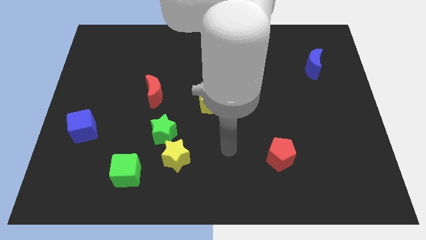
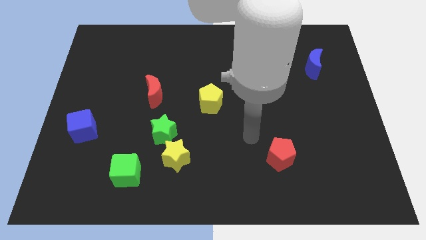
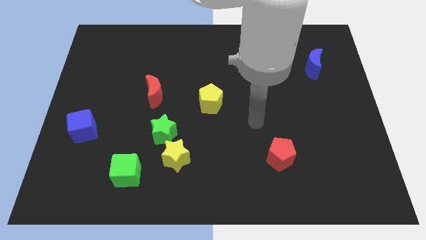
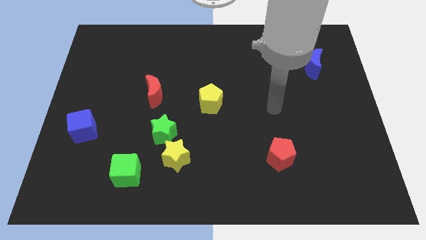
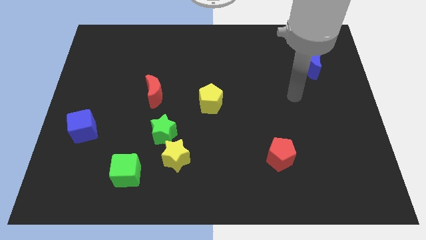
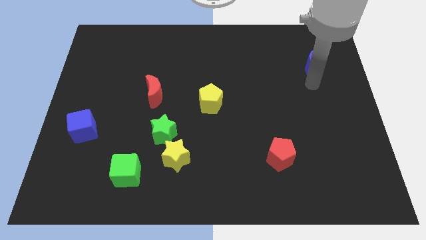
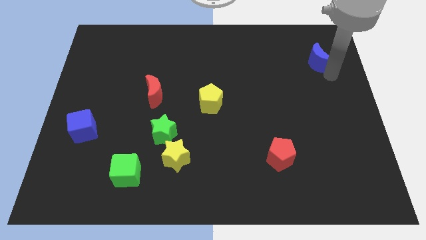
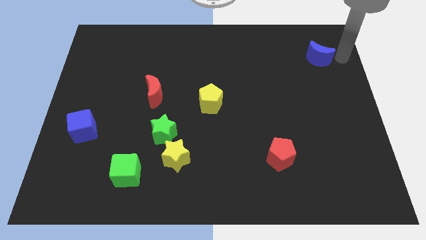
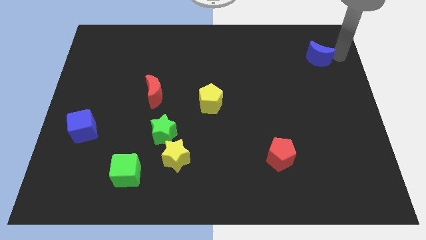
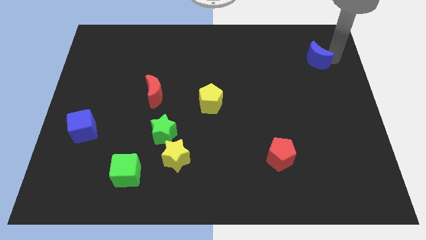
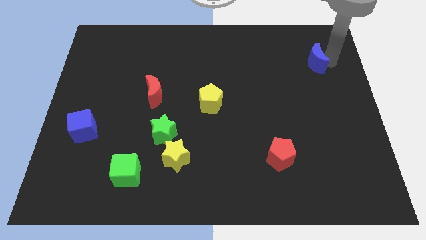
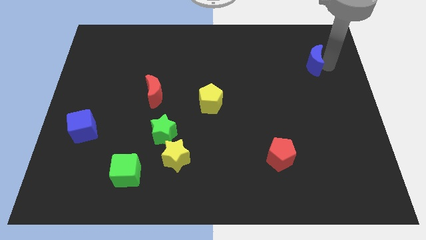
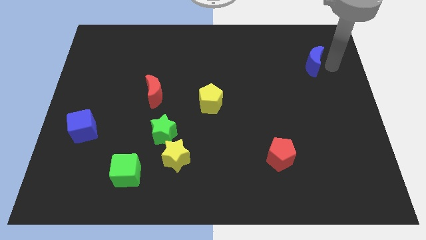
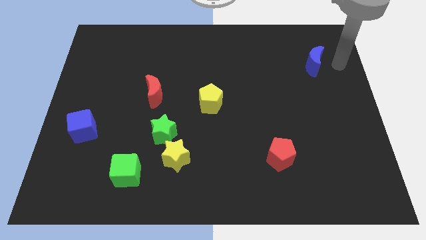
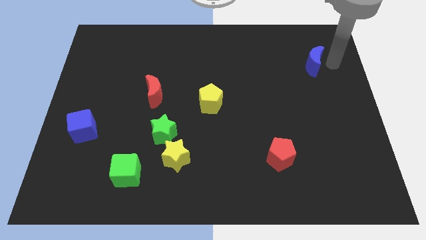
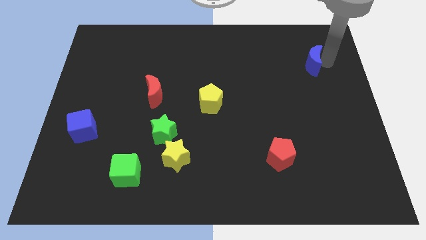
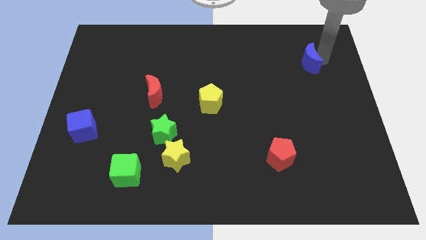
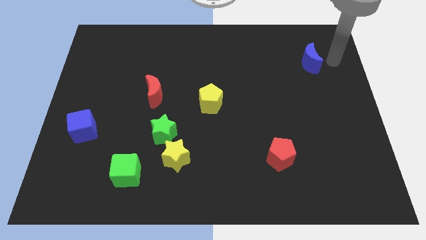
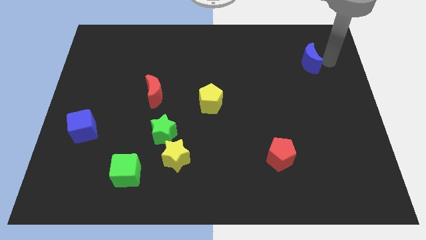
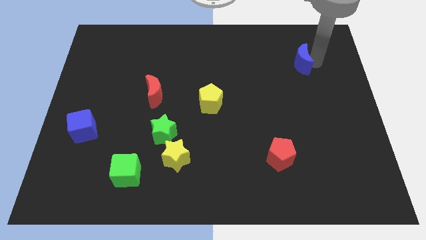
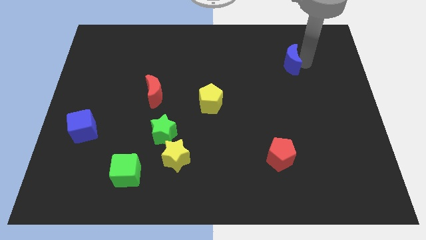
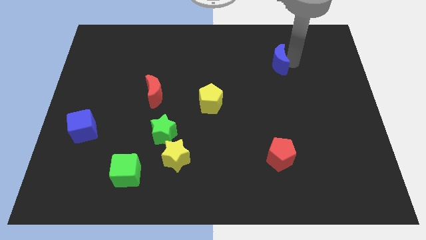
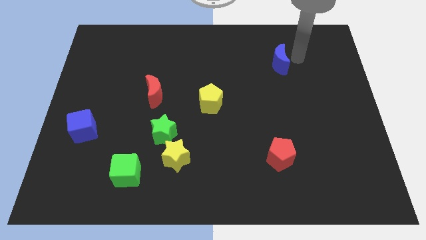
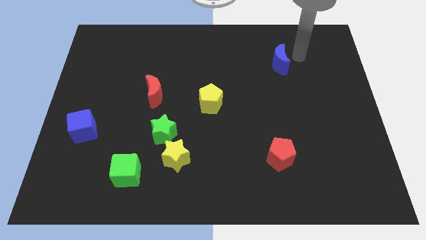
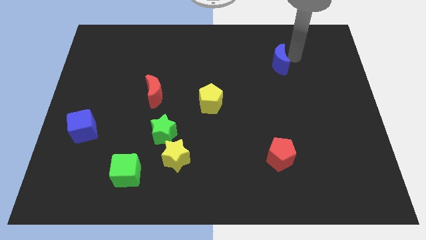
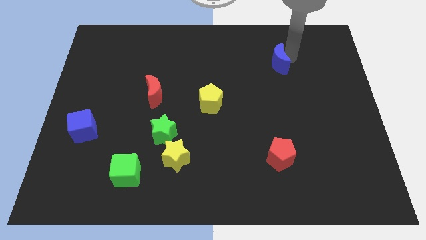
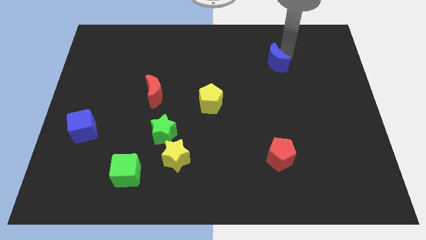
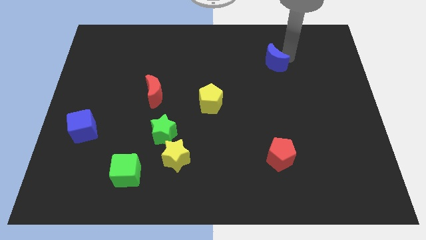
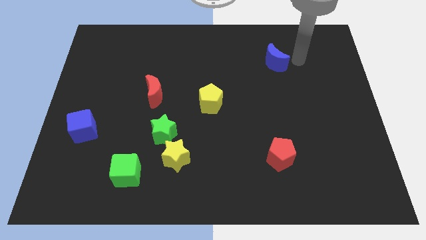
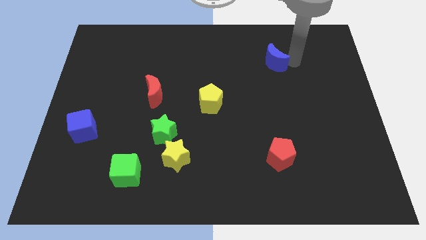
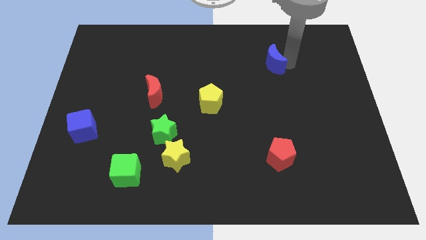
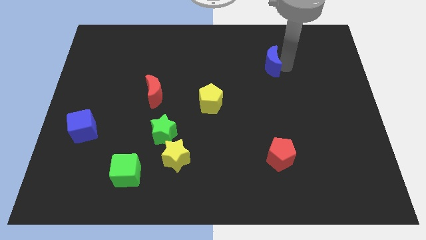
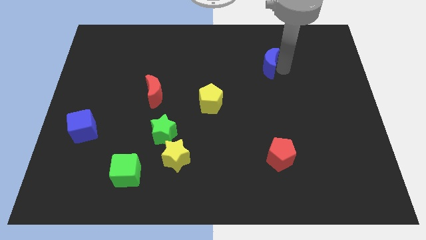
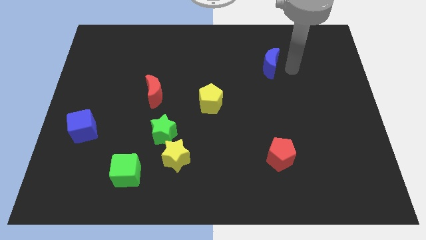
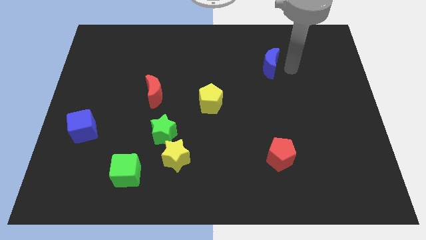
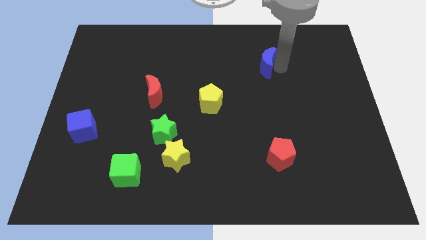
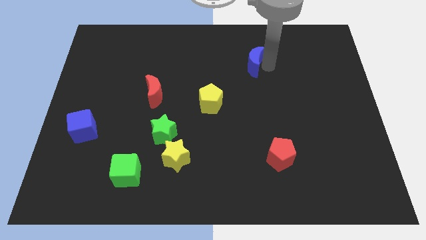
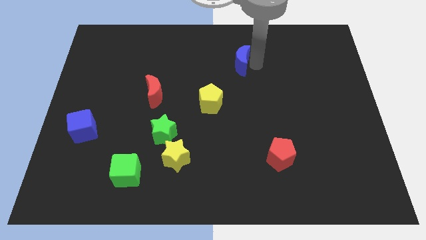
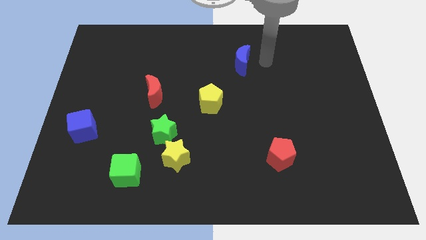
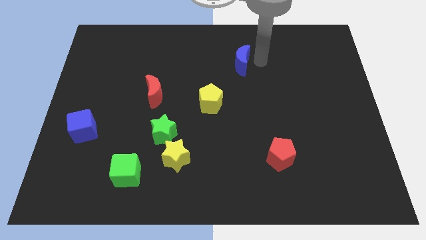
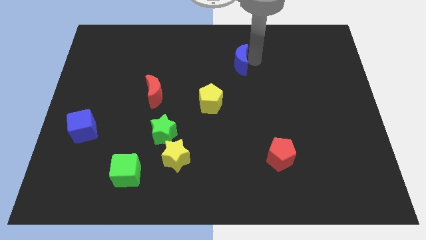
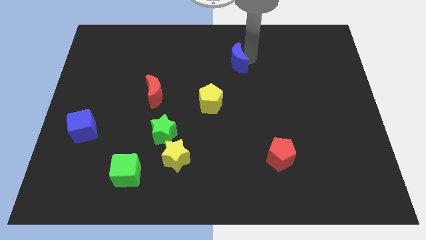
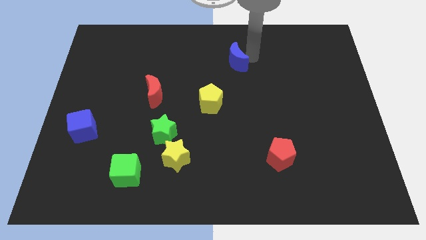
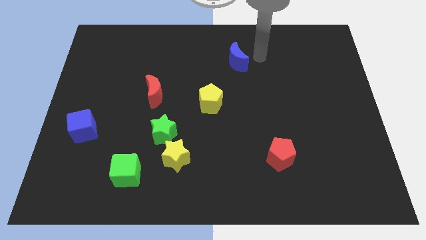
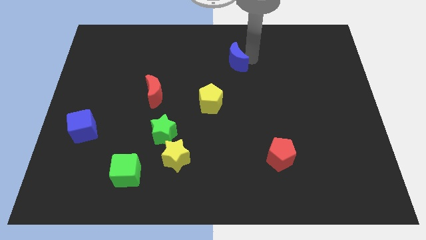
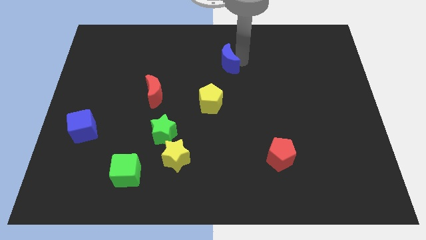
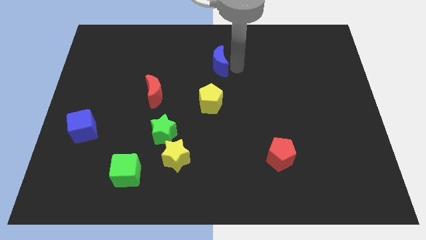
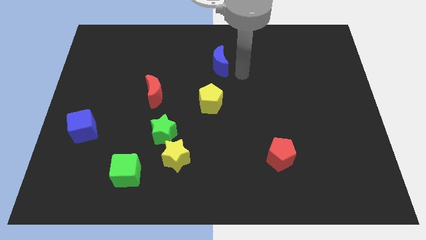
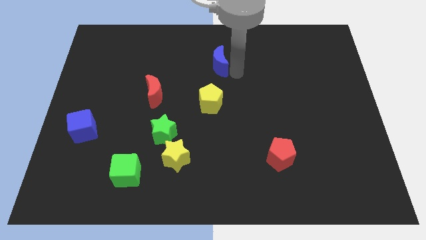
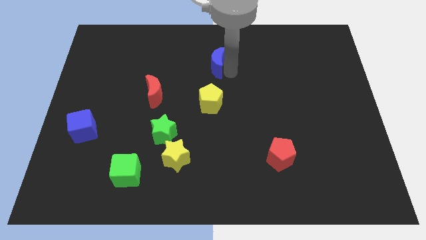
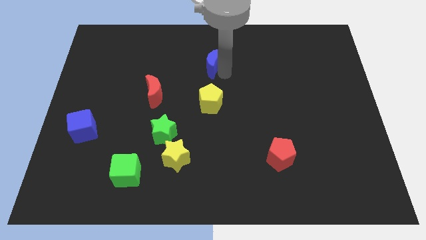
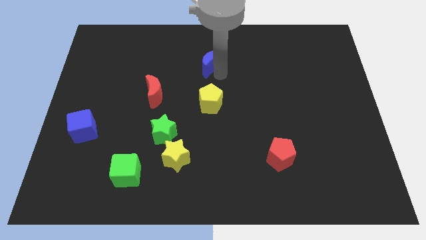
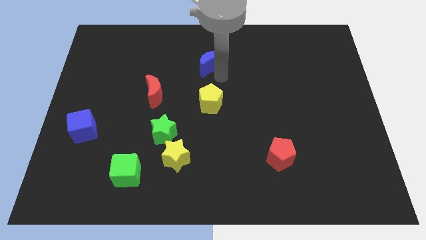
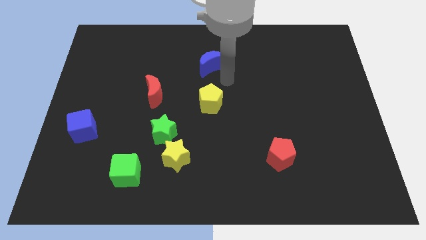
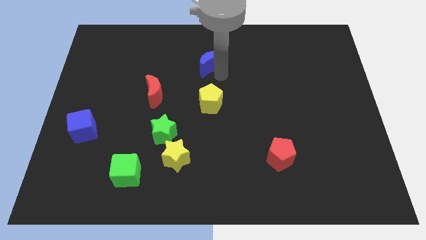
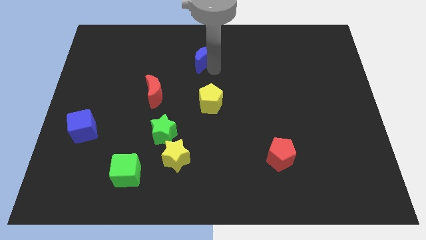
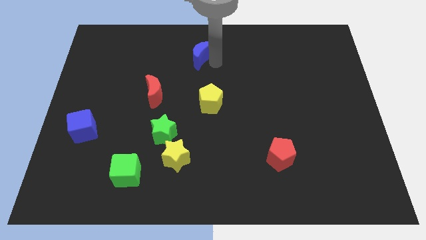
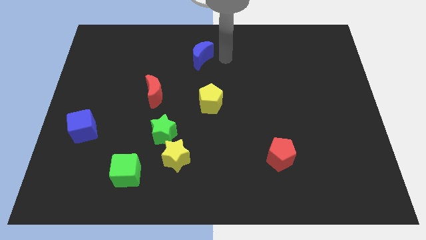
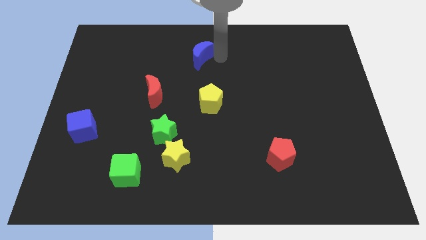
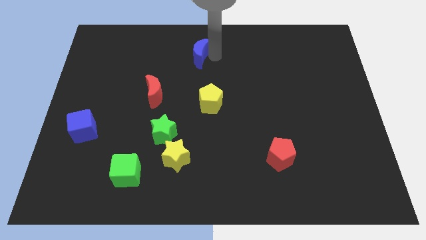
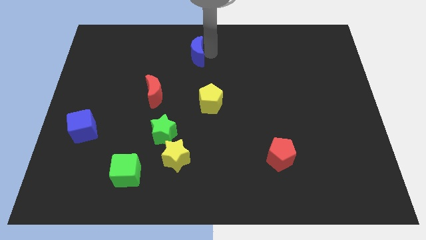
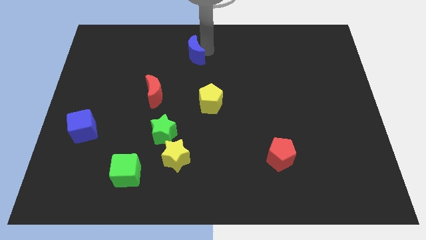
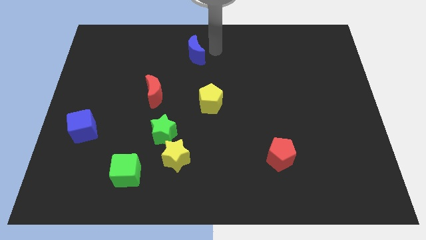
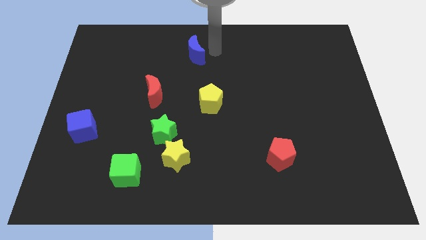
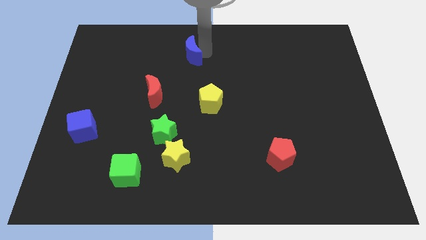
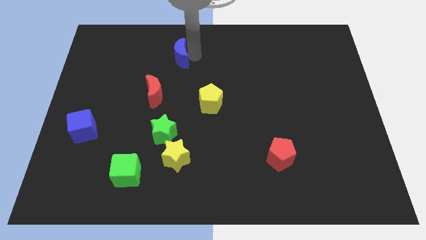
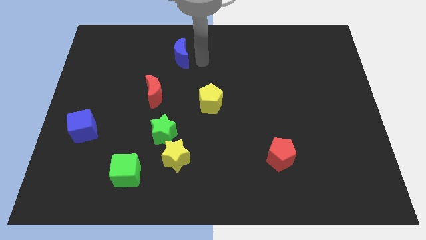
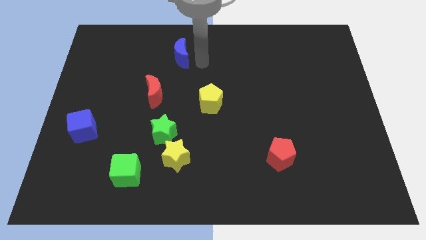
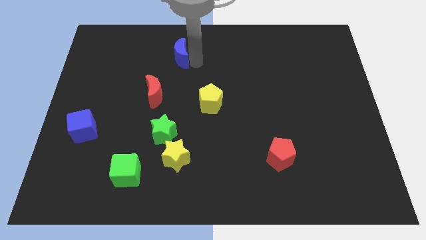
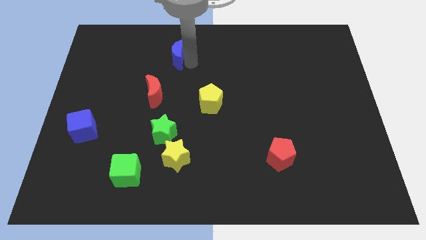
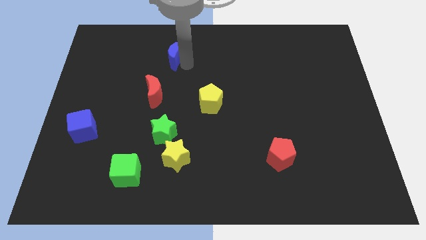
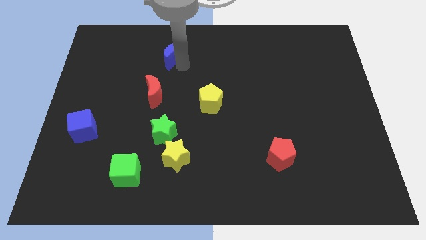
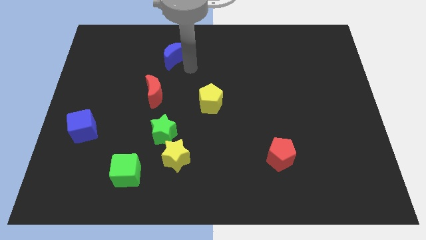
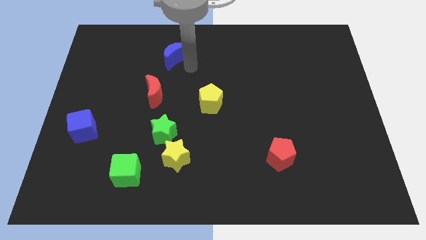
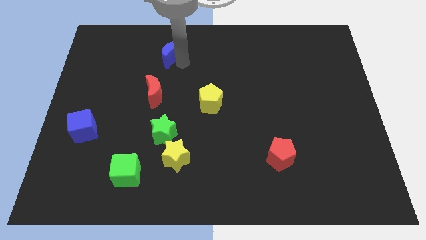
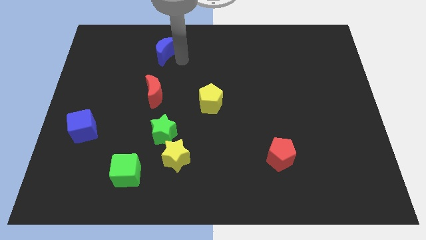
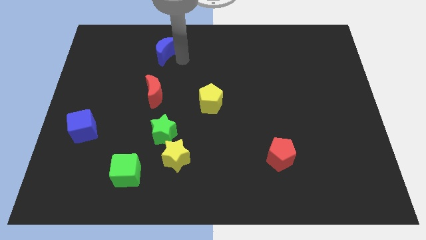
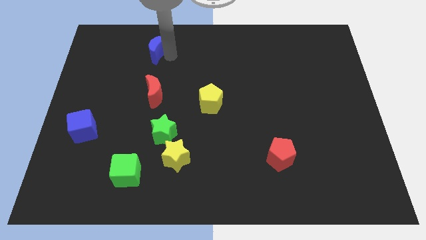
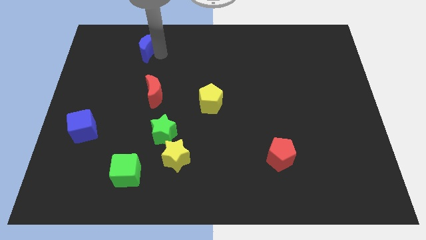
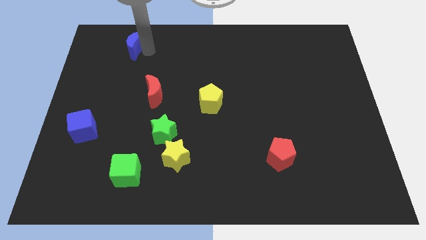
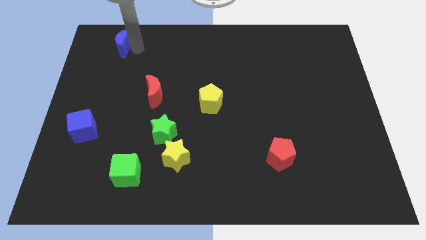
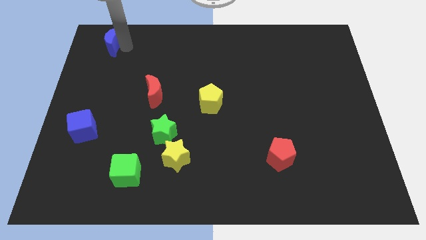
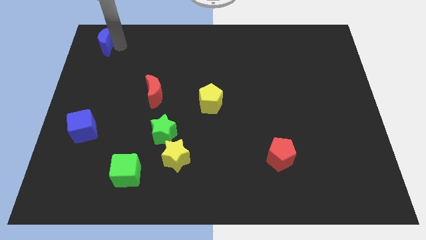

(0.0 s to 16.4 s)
put the blue moon to the upper left corner
